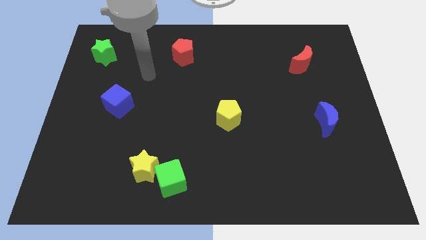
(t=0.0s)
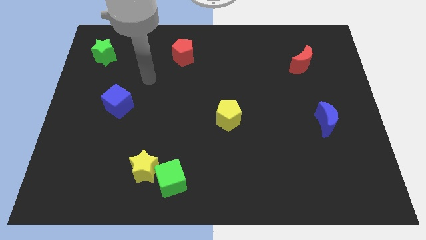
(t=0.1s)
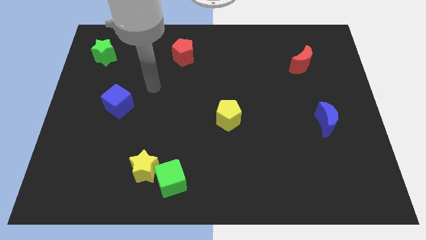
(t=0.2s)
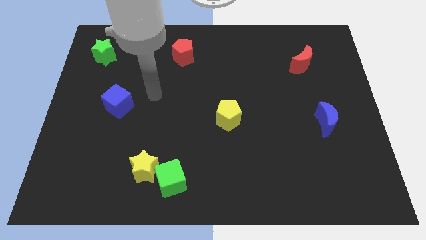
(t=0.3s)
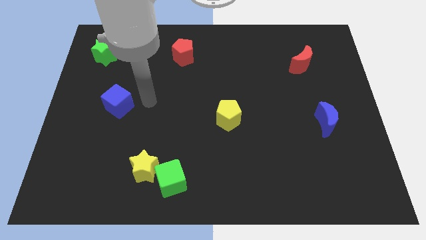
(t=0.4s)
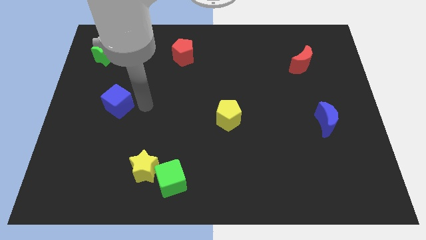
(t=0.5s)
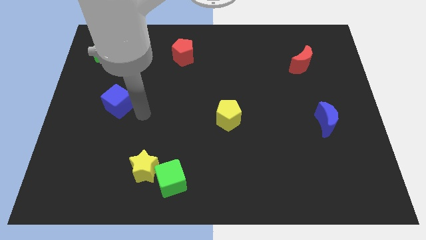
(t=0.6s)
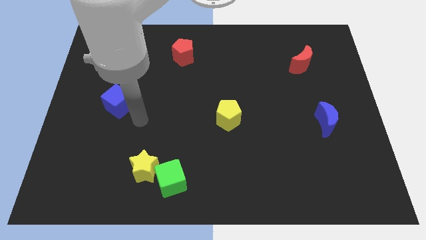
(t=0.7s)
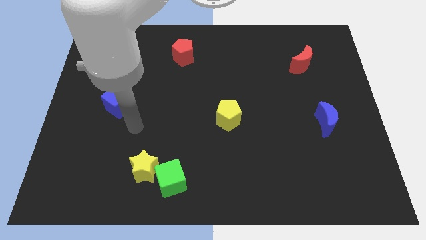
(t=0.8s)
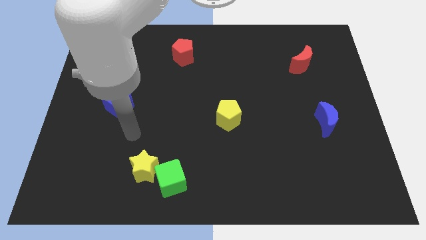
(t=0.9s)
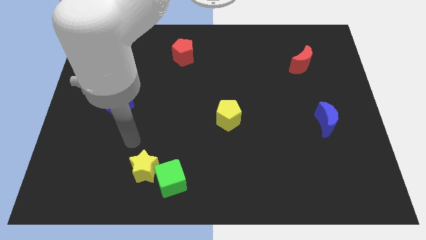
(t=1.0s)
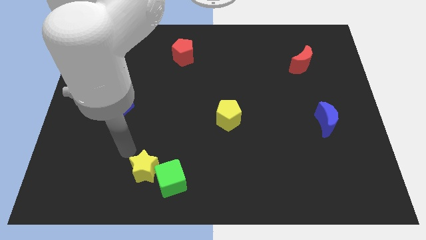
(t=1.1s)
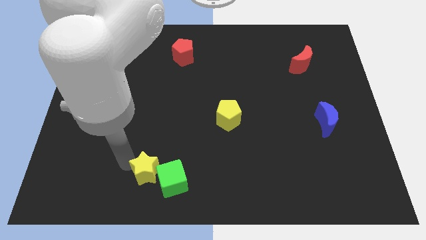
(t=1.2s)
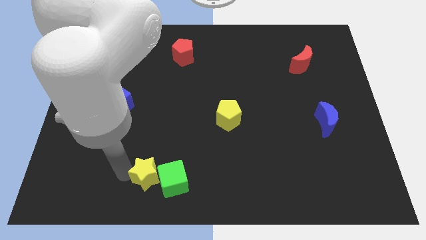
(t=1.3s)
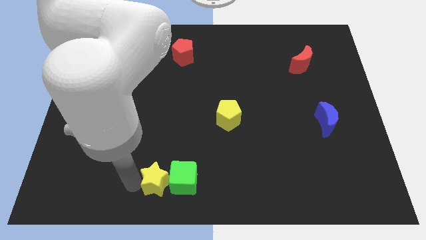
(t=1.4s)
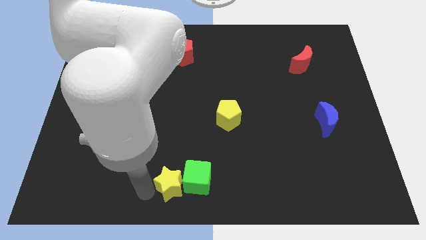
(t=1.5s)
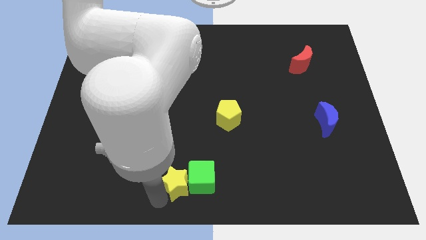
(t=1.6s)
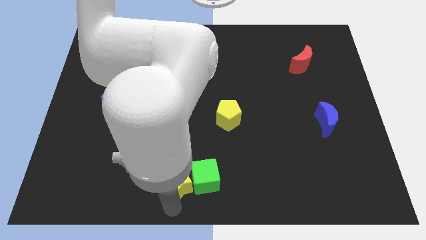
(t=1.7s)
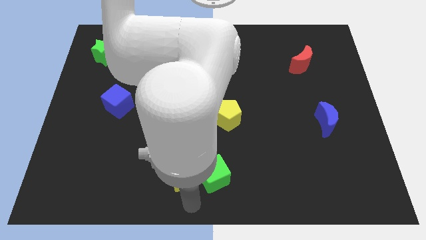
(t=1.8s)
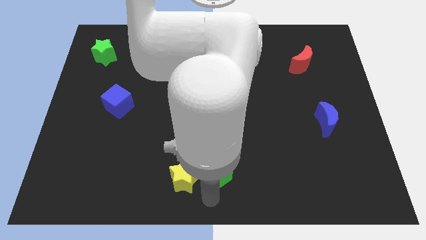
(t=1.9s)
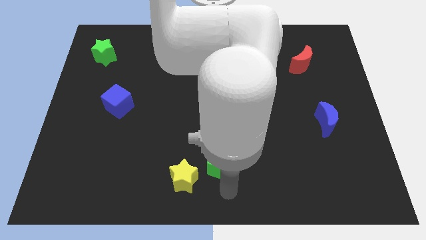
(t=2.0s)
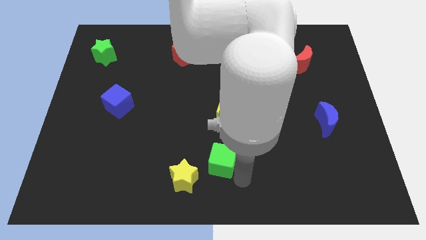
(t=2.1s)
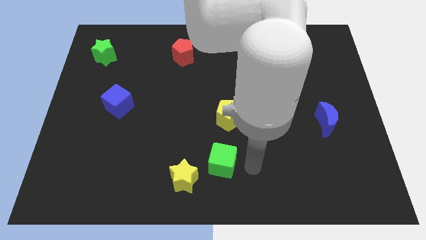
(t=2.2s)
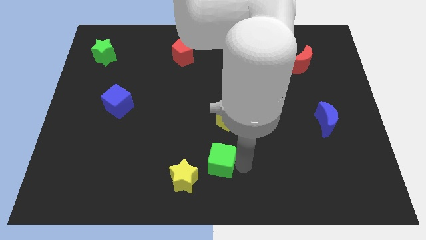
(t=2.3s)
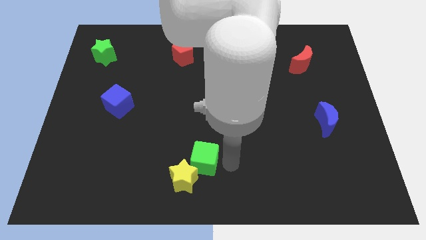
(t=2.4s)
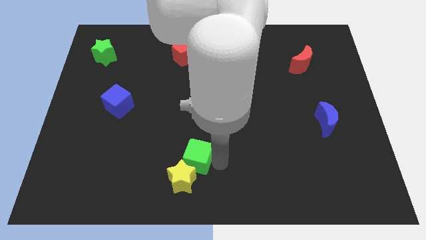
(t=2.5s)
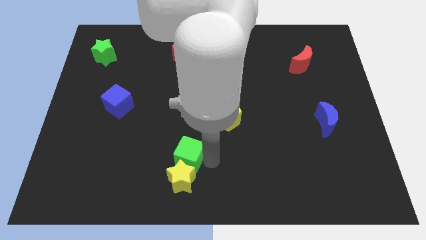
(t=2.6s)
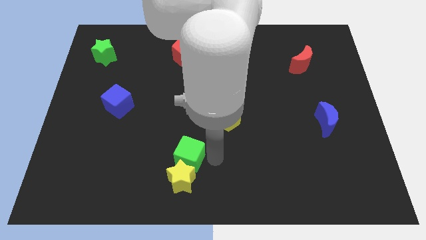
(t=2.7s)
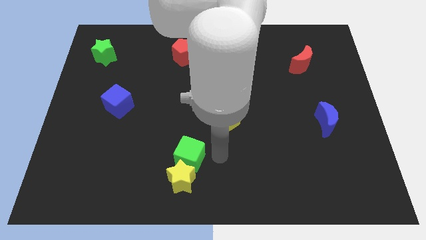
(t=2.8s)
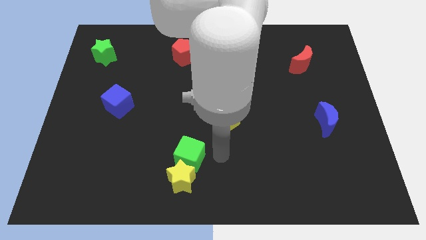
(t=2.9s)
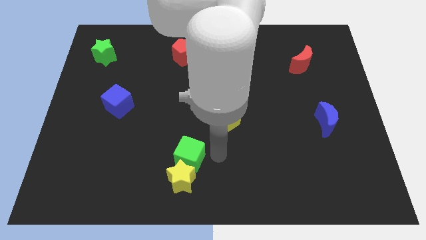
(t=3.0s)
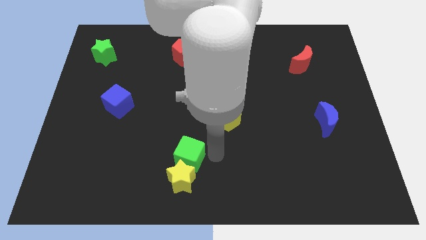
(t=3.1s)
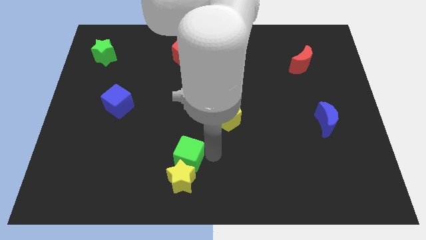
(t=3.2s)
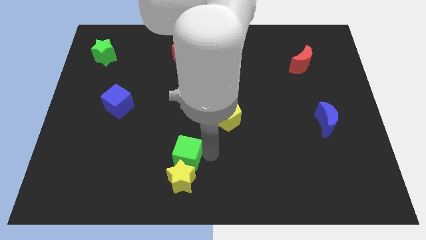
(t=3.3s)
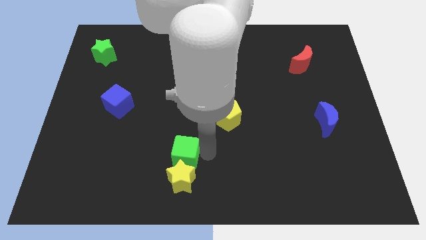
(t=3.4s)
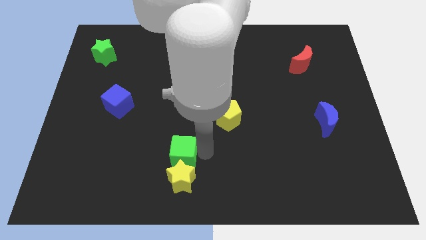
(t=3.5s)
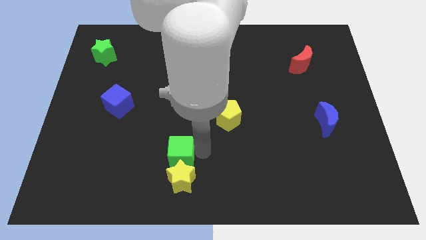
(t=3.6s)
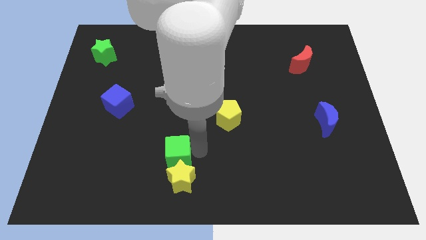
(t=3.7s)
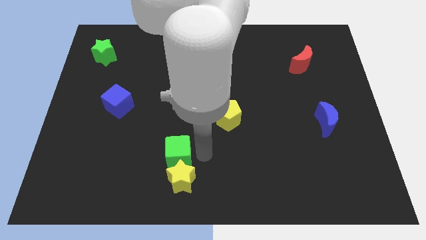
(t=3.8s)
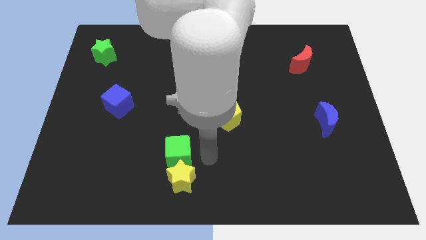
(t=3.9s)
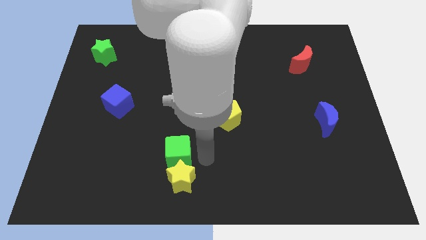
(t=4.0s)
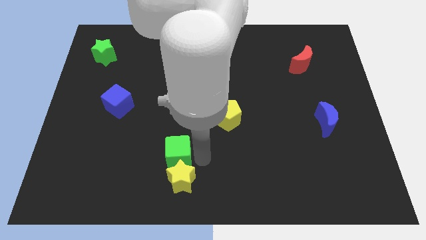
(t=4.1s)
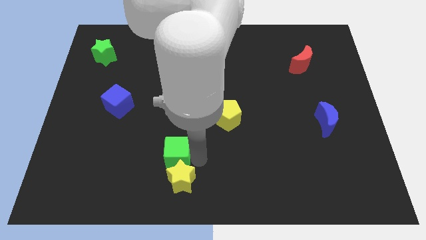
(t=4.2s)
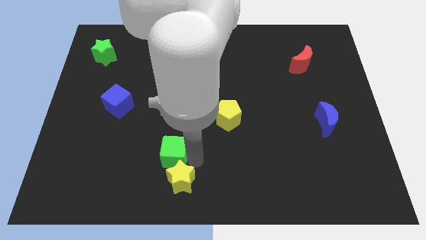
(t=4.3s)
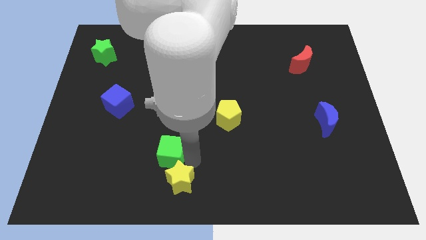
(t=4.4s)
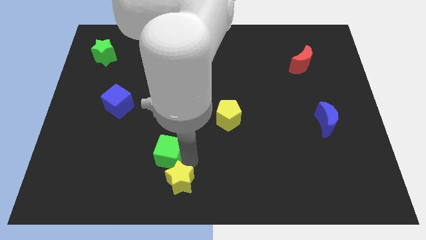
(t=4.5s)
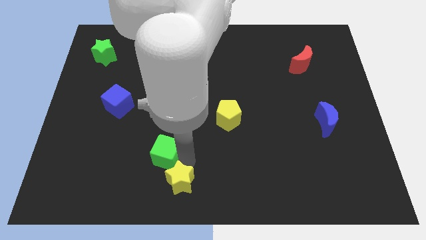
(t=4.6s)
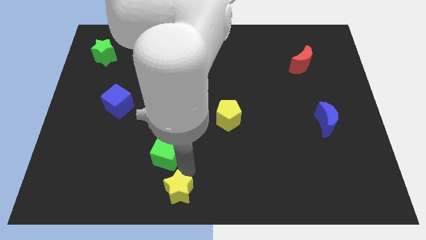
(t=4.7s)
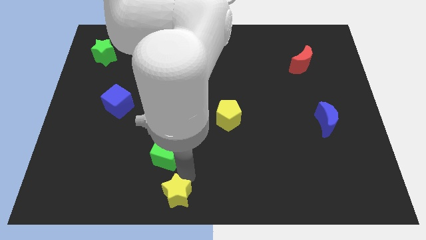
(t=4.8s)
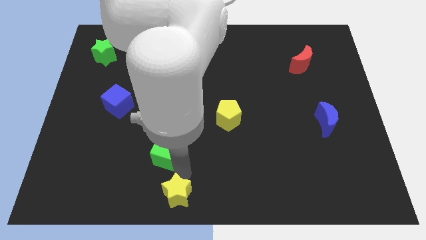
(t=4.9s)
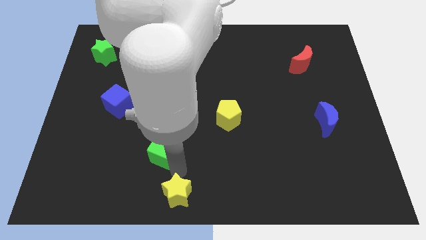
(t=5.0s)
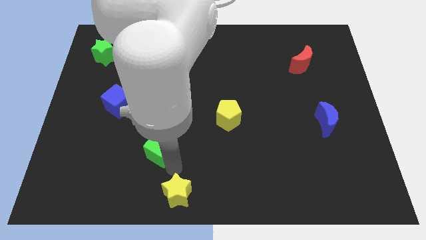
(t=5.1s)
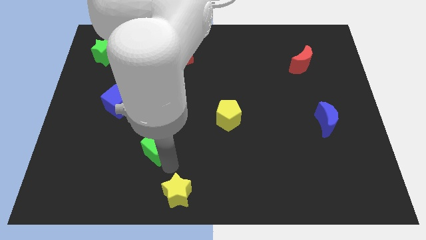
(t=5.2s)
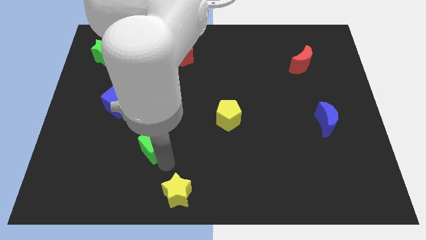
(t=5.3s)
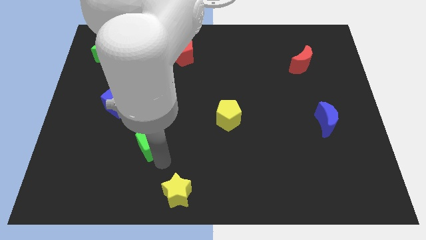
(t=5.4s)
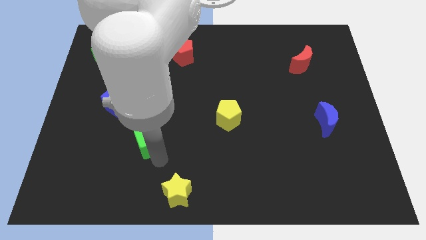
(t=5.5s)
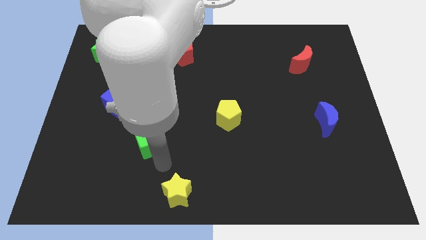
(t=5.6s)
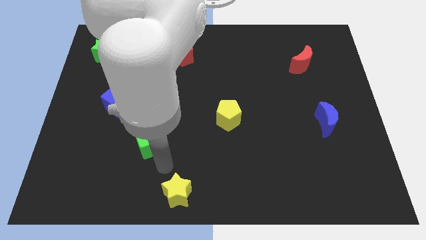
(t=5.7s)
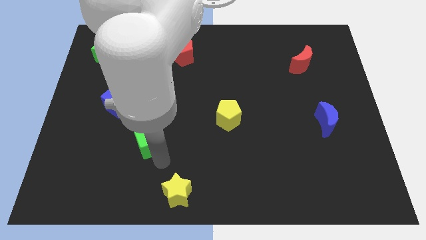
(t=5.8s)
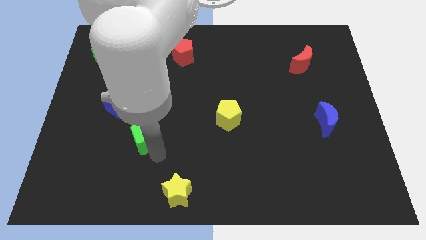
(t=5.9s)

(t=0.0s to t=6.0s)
slide the green cube to the bottom right side of the blue cube

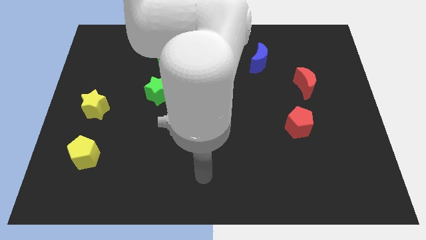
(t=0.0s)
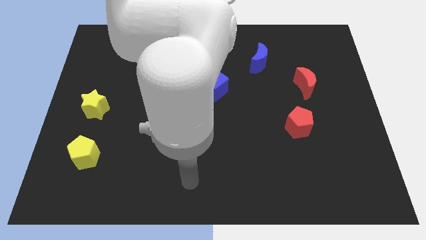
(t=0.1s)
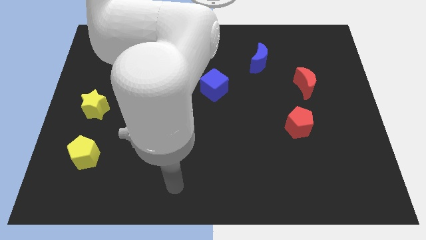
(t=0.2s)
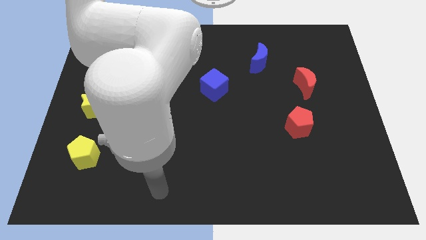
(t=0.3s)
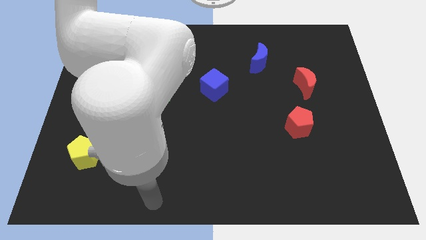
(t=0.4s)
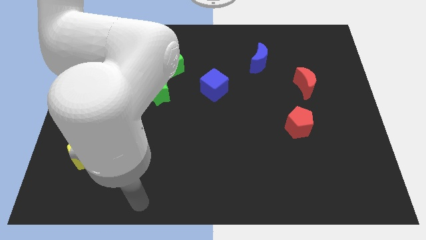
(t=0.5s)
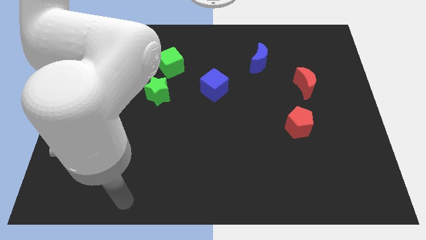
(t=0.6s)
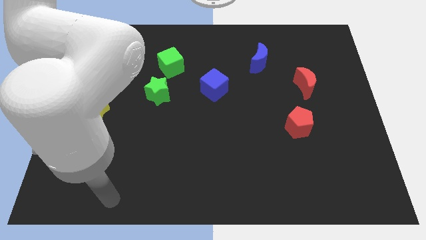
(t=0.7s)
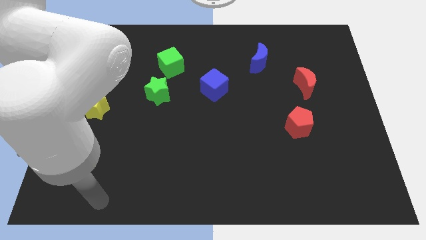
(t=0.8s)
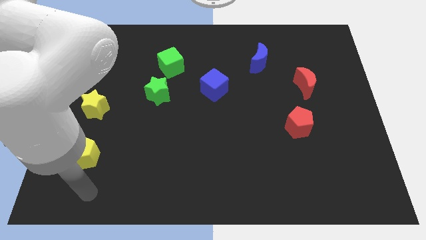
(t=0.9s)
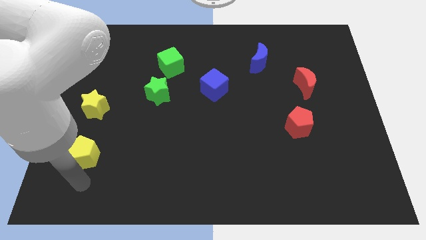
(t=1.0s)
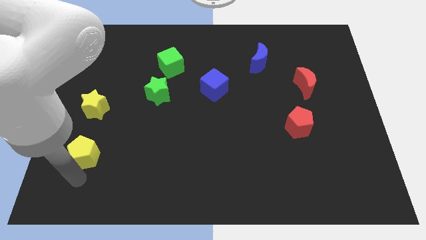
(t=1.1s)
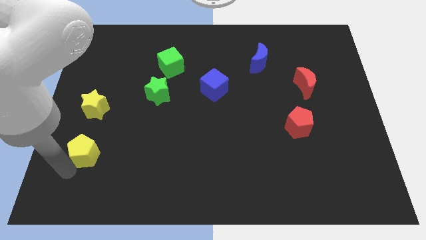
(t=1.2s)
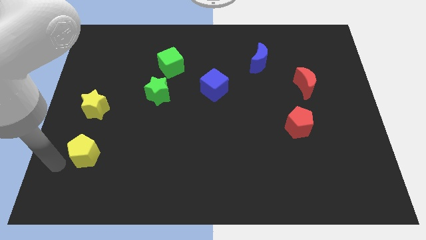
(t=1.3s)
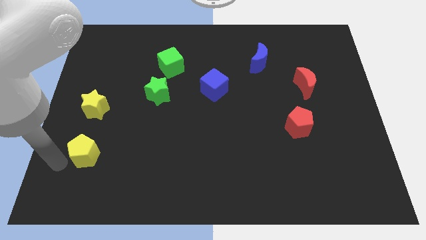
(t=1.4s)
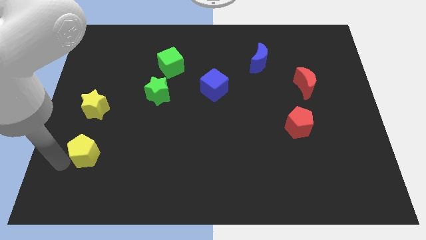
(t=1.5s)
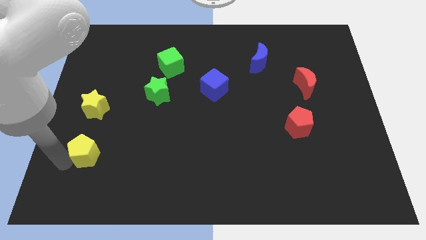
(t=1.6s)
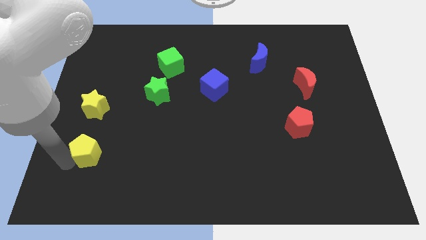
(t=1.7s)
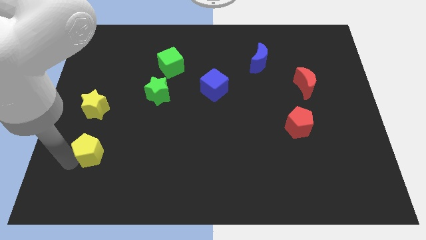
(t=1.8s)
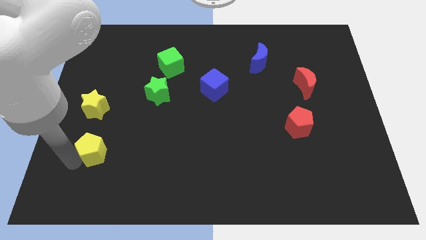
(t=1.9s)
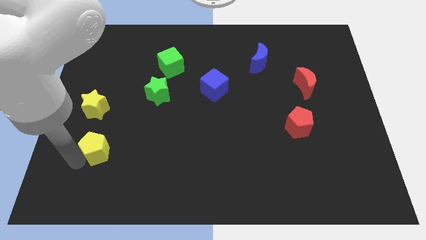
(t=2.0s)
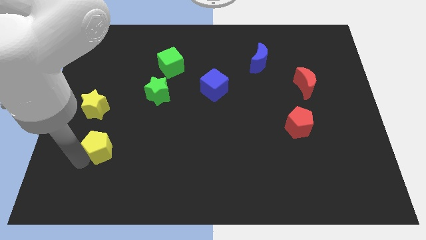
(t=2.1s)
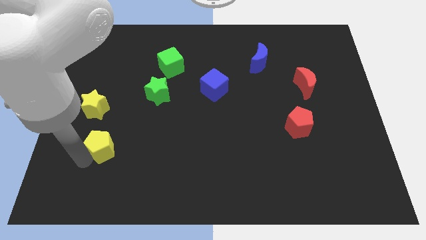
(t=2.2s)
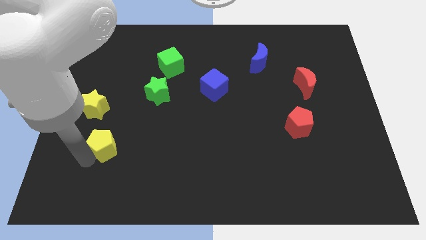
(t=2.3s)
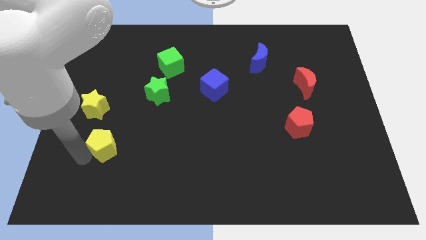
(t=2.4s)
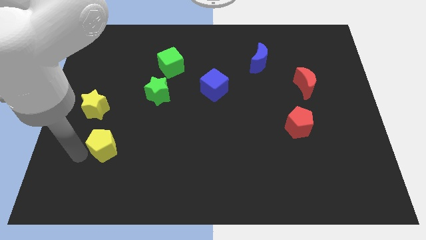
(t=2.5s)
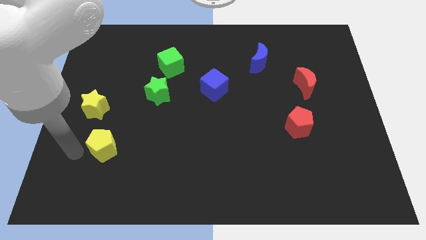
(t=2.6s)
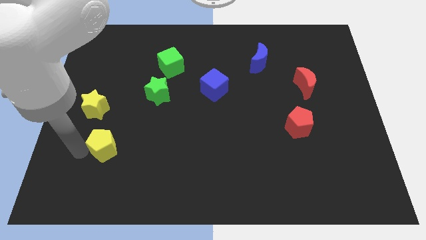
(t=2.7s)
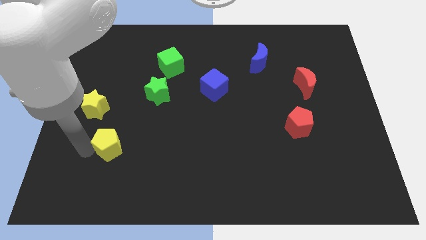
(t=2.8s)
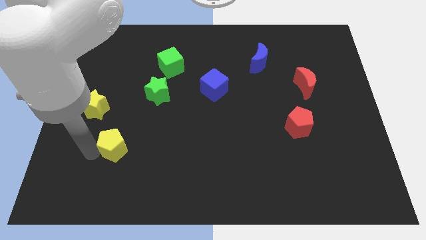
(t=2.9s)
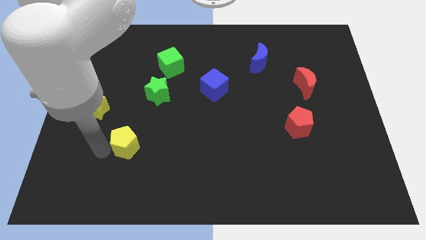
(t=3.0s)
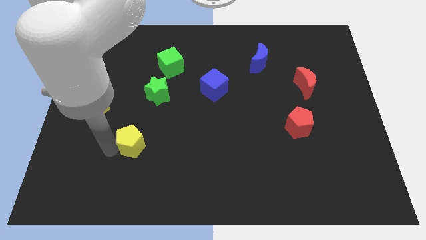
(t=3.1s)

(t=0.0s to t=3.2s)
move the yellow pentagon below the green star
